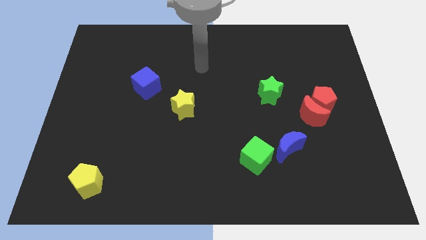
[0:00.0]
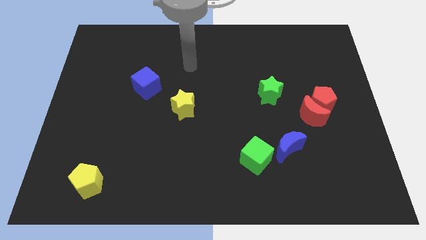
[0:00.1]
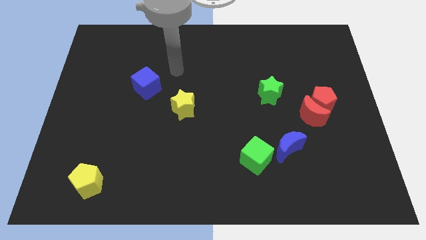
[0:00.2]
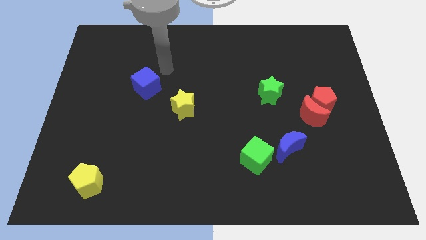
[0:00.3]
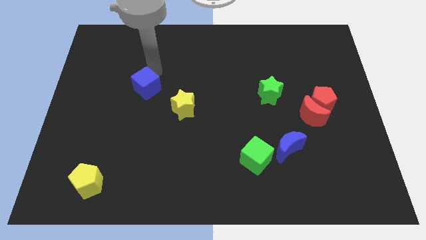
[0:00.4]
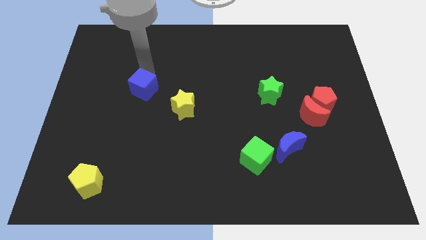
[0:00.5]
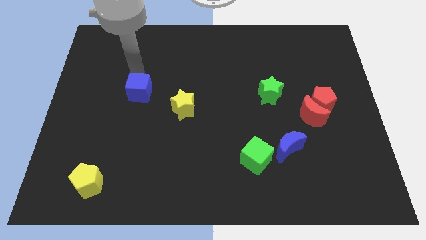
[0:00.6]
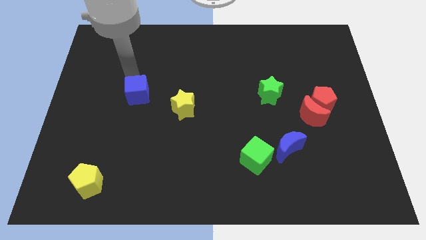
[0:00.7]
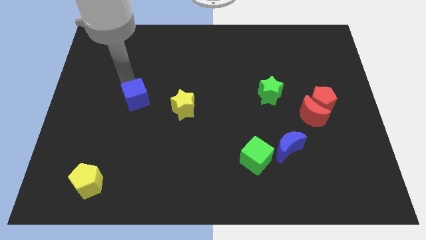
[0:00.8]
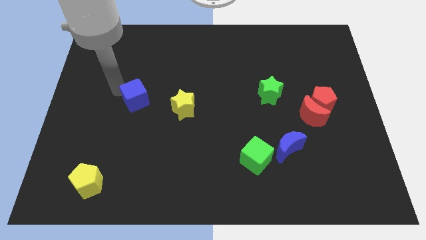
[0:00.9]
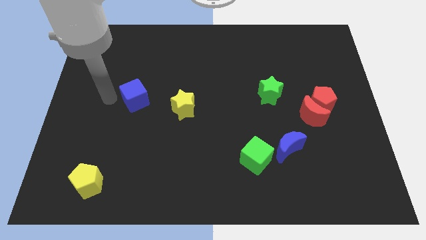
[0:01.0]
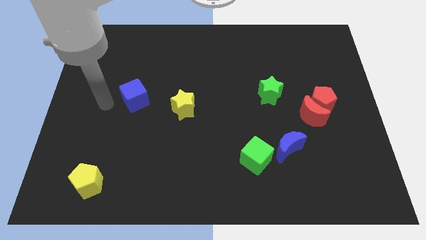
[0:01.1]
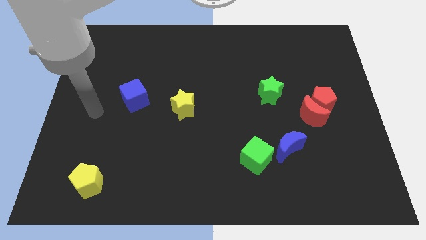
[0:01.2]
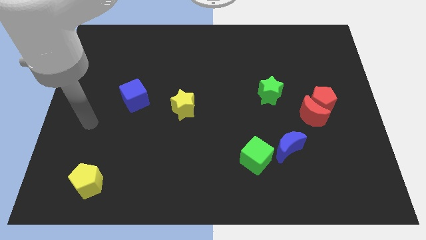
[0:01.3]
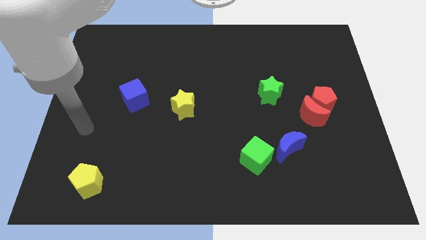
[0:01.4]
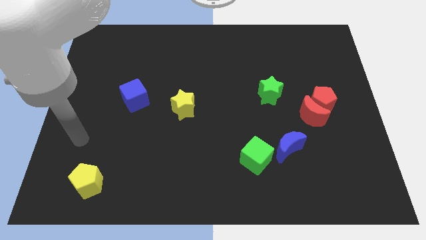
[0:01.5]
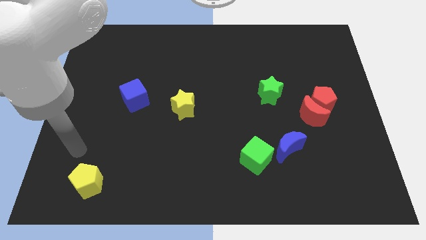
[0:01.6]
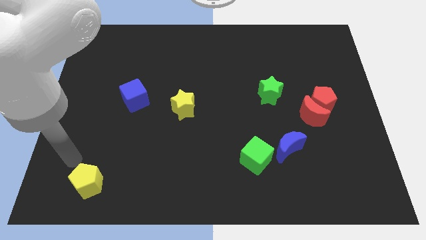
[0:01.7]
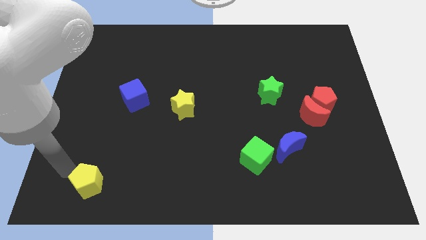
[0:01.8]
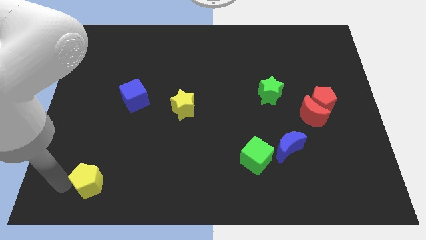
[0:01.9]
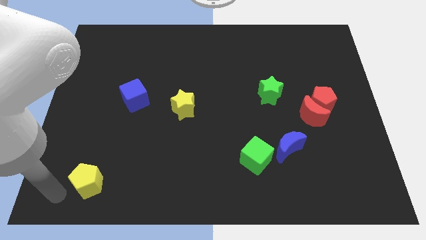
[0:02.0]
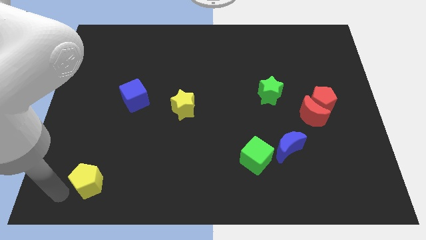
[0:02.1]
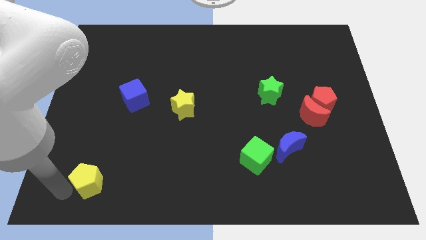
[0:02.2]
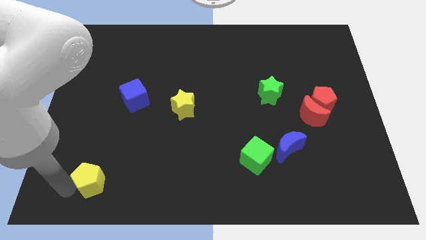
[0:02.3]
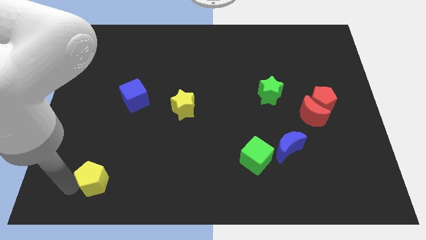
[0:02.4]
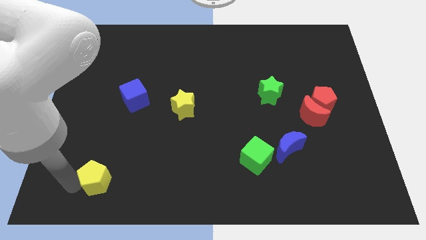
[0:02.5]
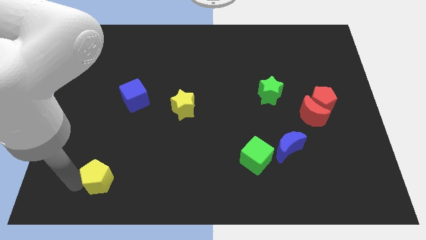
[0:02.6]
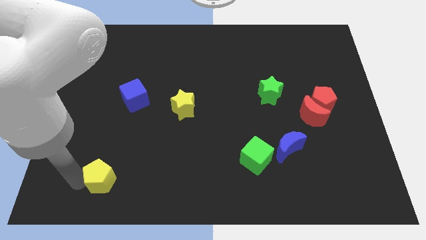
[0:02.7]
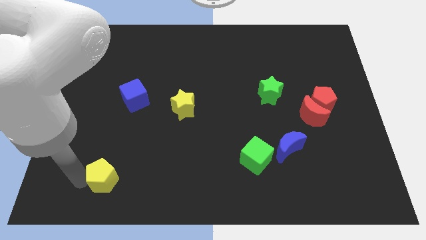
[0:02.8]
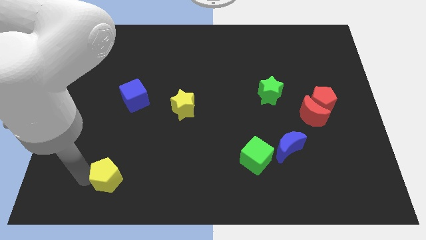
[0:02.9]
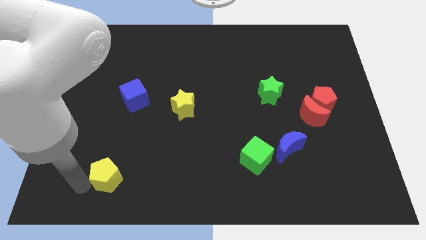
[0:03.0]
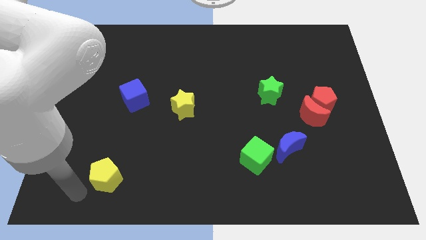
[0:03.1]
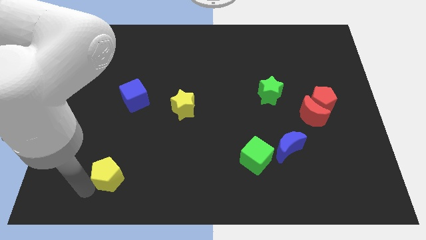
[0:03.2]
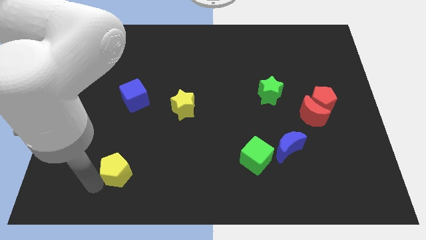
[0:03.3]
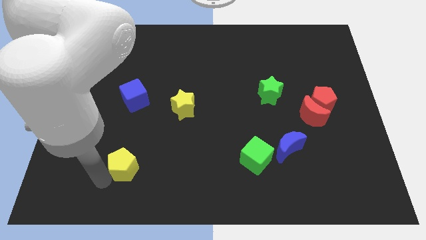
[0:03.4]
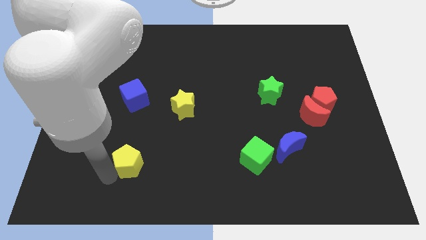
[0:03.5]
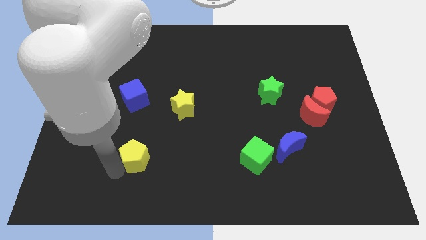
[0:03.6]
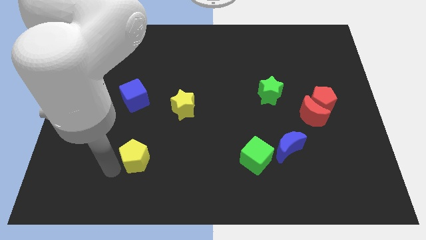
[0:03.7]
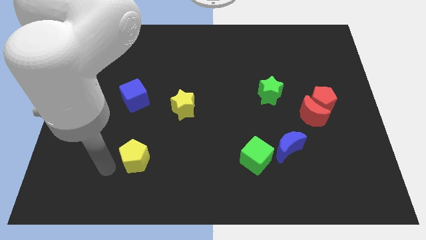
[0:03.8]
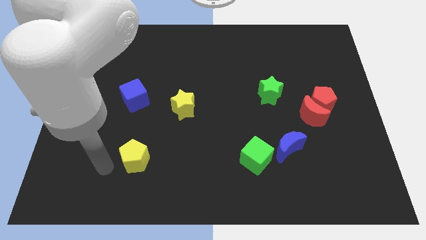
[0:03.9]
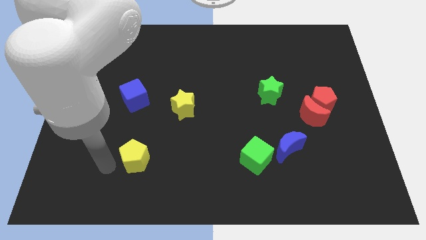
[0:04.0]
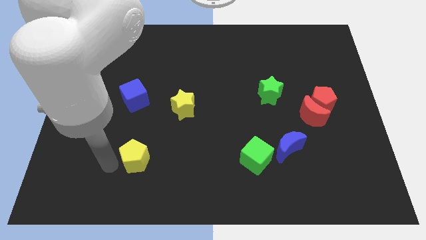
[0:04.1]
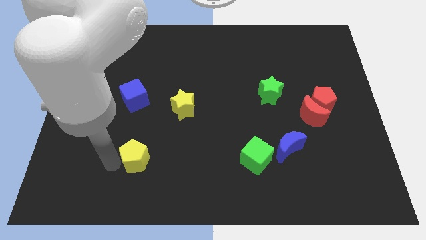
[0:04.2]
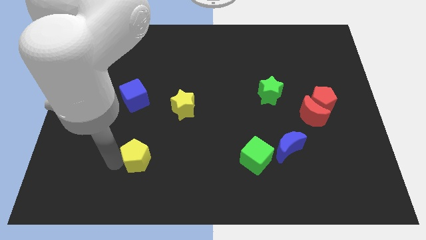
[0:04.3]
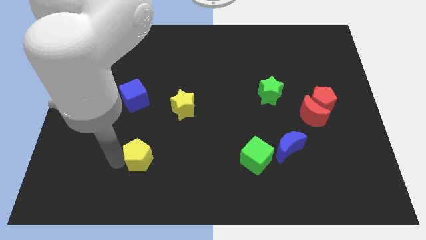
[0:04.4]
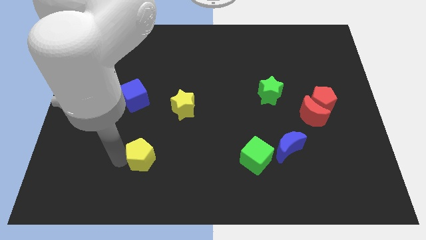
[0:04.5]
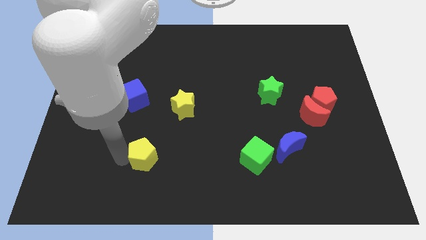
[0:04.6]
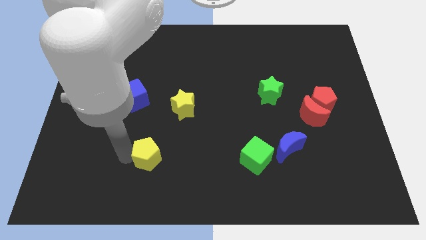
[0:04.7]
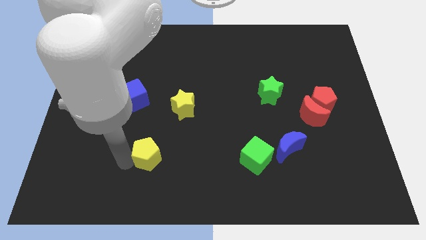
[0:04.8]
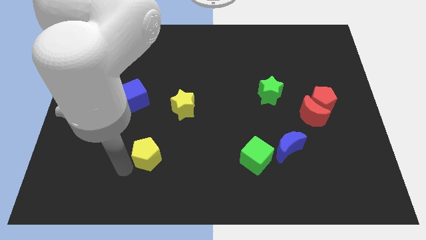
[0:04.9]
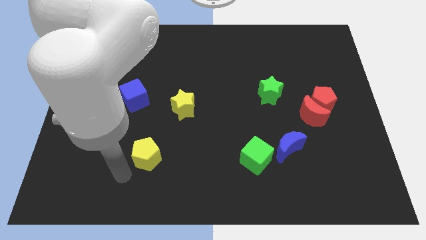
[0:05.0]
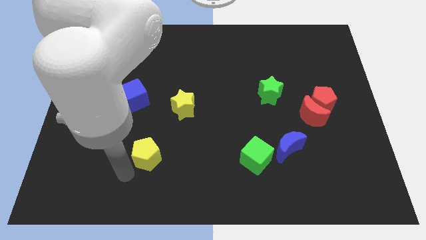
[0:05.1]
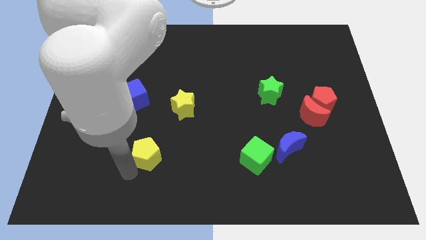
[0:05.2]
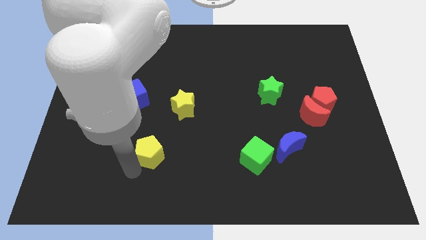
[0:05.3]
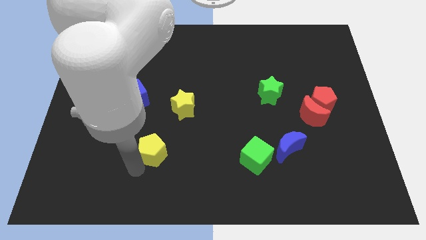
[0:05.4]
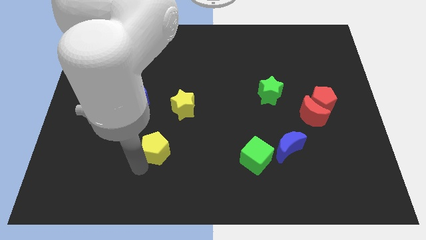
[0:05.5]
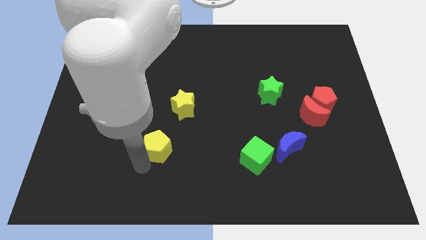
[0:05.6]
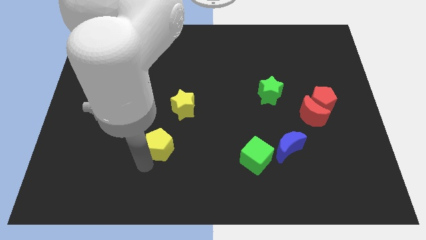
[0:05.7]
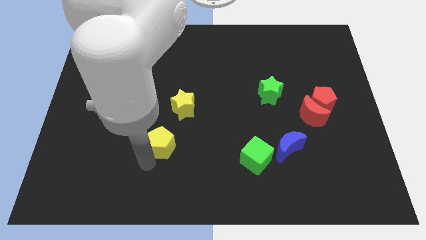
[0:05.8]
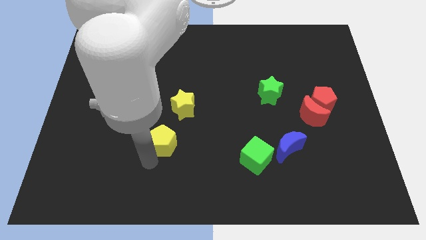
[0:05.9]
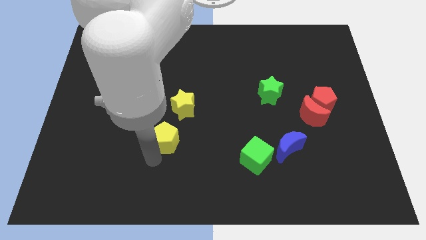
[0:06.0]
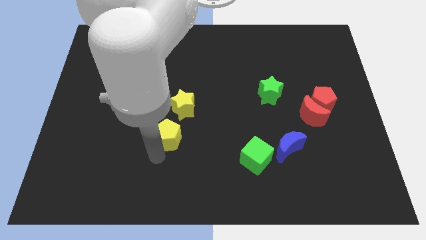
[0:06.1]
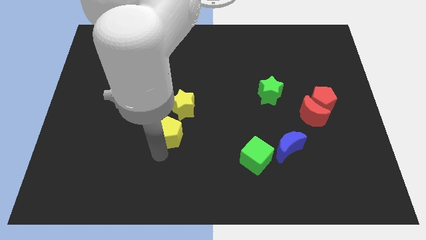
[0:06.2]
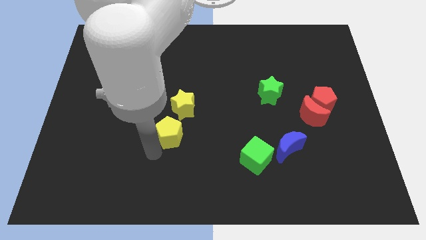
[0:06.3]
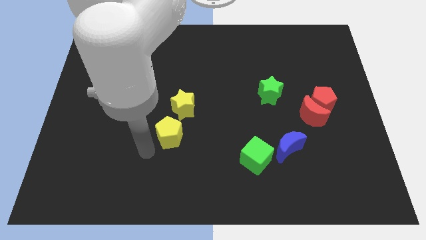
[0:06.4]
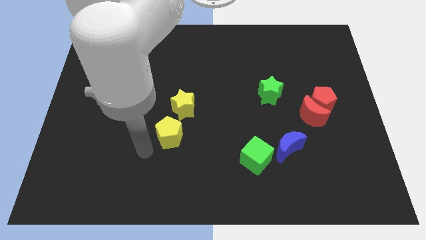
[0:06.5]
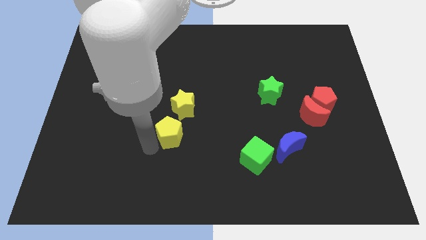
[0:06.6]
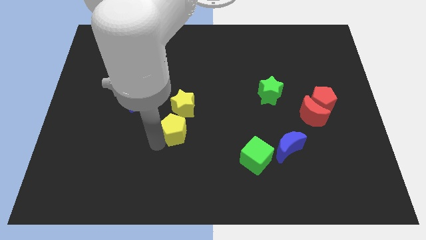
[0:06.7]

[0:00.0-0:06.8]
slide the yellow pentagon diagonally upwards and to the right

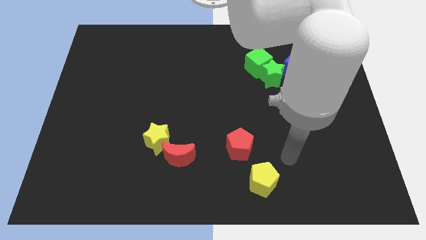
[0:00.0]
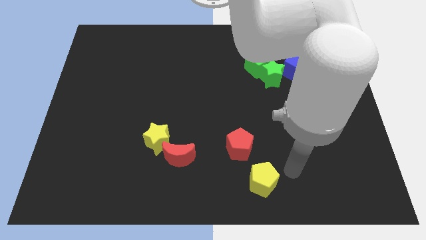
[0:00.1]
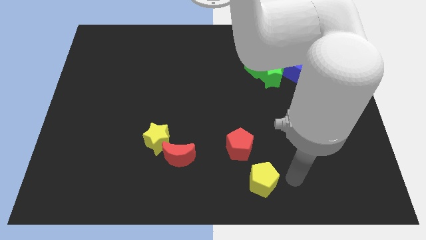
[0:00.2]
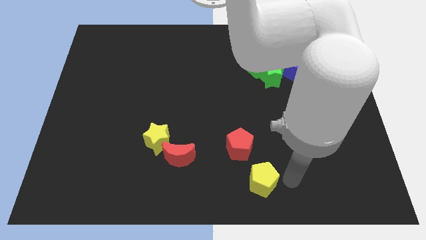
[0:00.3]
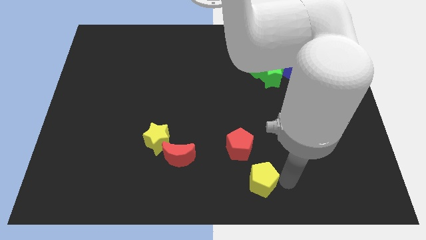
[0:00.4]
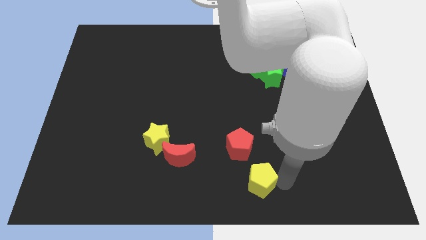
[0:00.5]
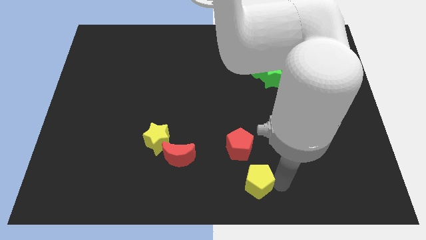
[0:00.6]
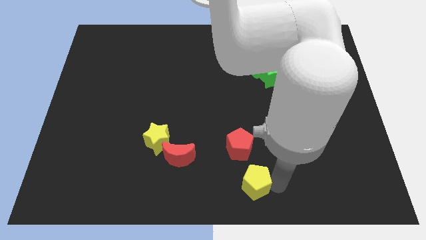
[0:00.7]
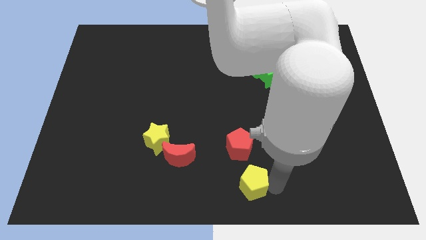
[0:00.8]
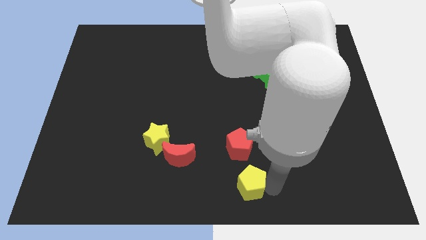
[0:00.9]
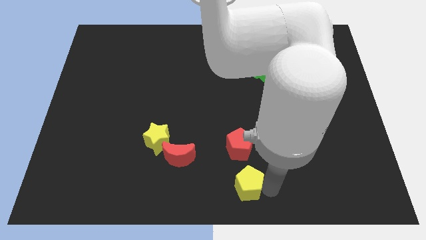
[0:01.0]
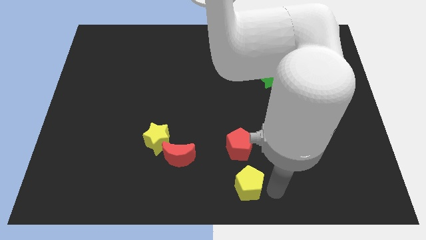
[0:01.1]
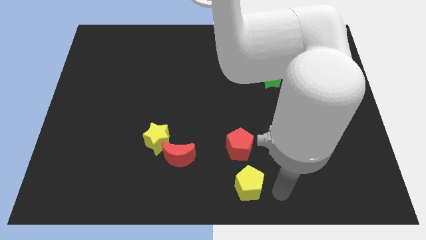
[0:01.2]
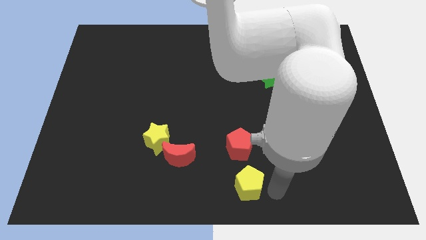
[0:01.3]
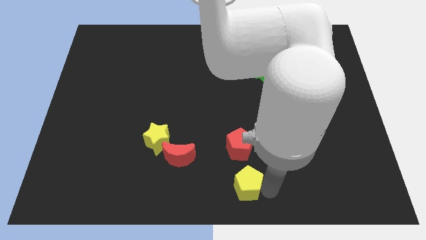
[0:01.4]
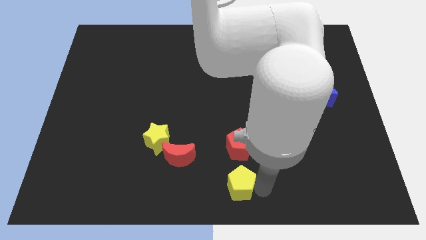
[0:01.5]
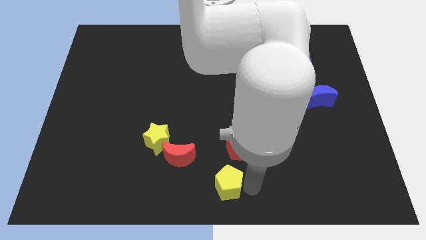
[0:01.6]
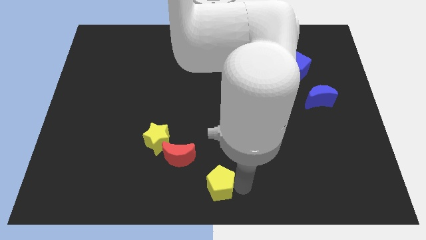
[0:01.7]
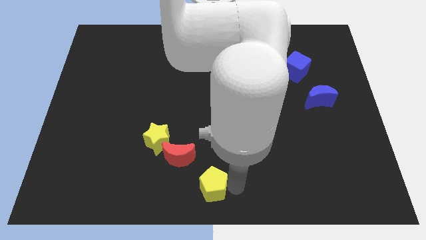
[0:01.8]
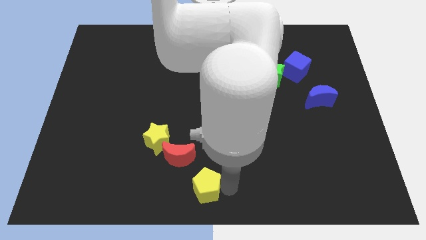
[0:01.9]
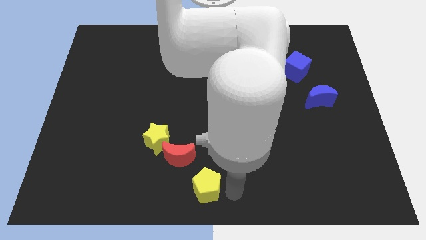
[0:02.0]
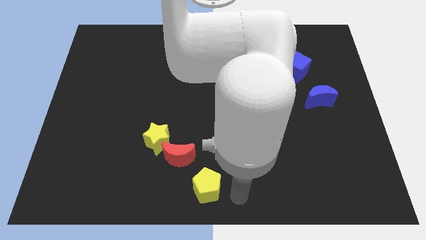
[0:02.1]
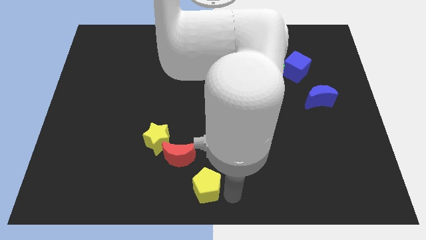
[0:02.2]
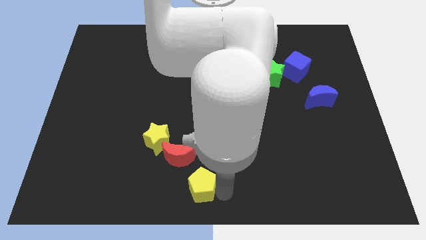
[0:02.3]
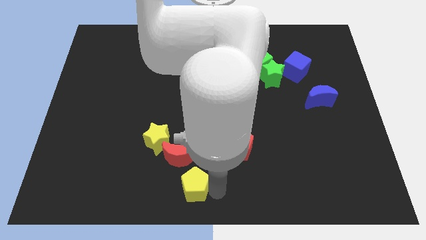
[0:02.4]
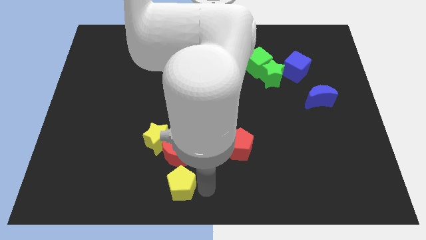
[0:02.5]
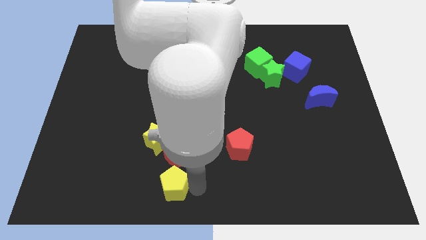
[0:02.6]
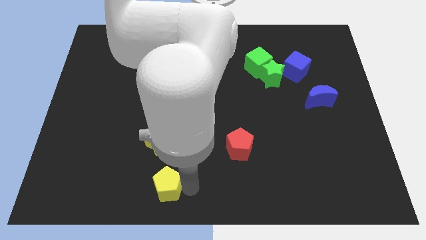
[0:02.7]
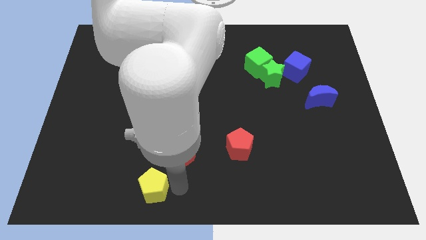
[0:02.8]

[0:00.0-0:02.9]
push the yellow pentagon left
